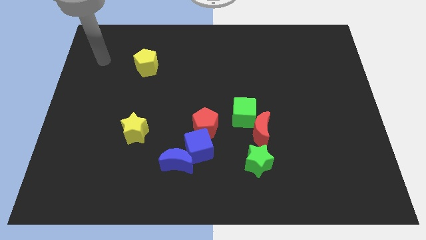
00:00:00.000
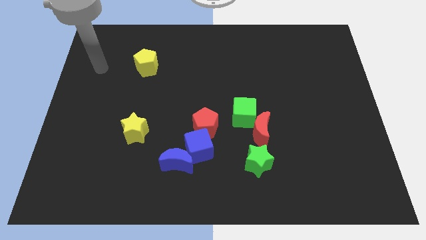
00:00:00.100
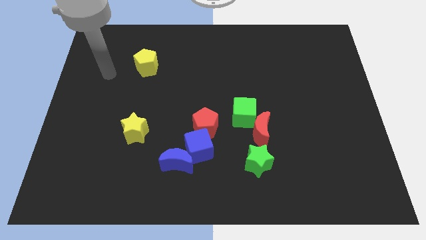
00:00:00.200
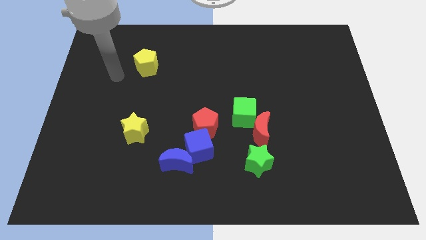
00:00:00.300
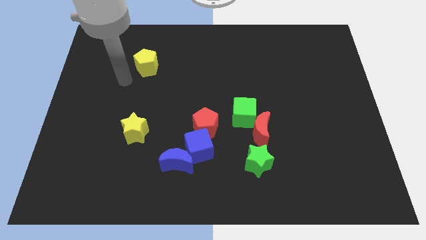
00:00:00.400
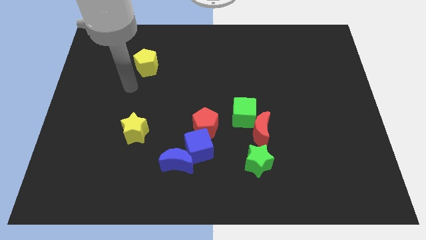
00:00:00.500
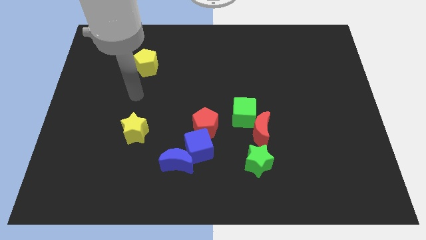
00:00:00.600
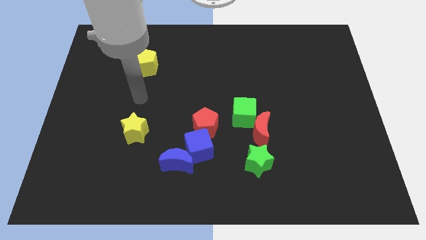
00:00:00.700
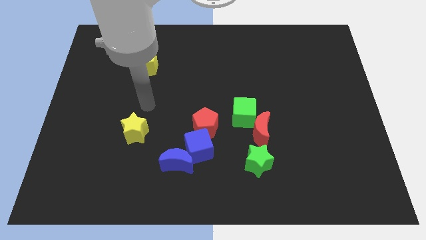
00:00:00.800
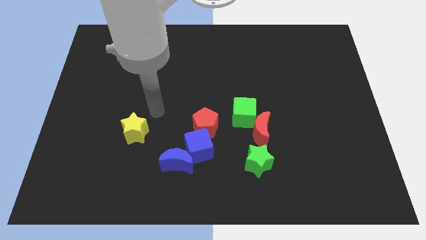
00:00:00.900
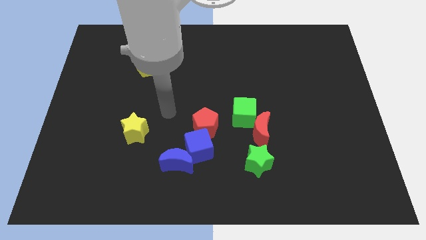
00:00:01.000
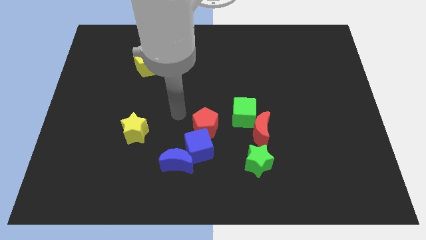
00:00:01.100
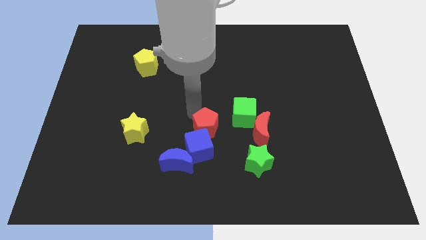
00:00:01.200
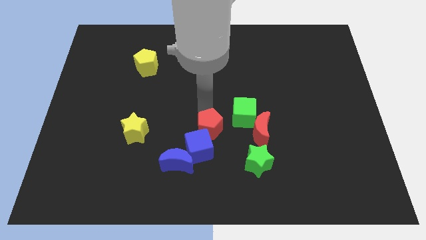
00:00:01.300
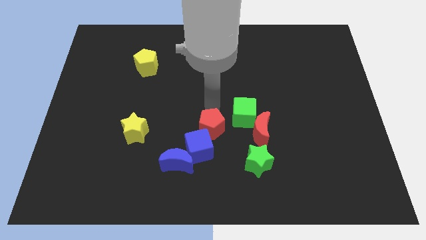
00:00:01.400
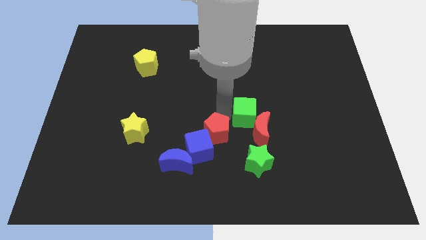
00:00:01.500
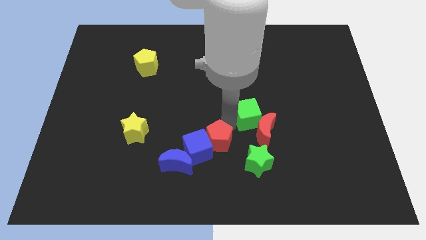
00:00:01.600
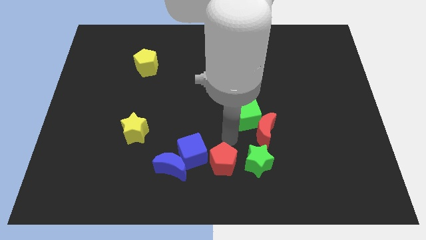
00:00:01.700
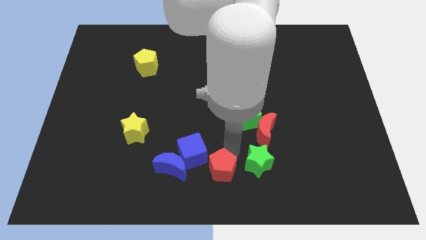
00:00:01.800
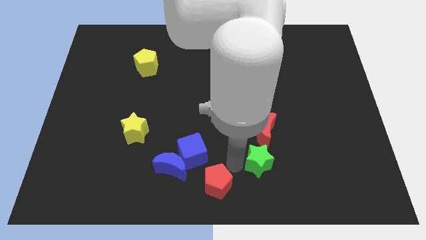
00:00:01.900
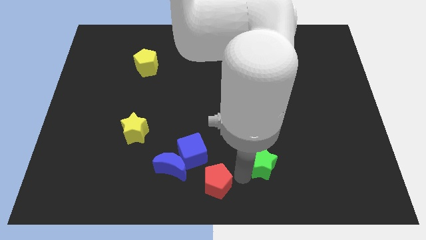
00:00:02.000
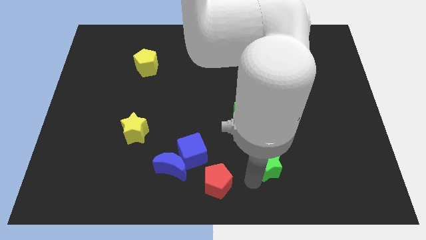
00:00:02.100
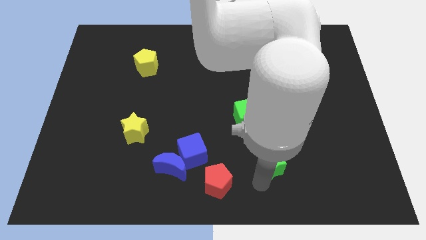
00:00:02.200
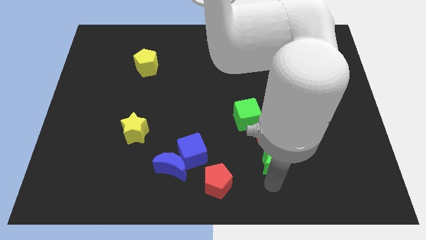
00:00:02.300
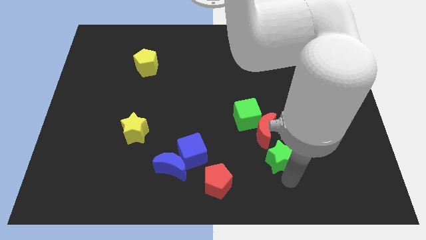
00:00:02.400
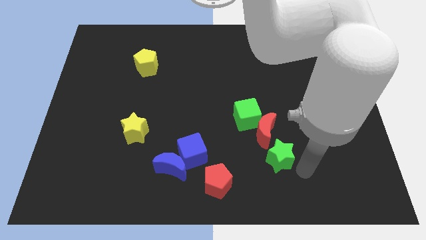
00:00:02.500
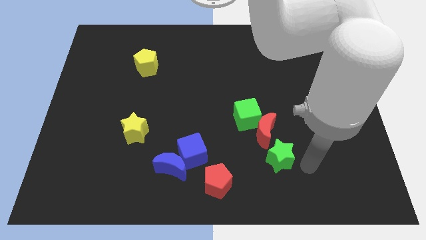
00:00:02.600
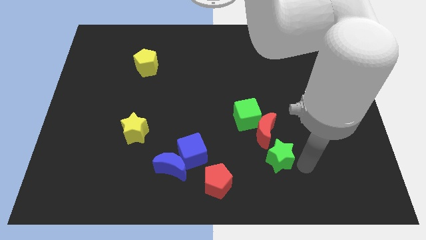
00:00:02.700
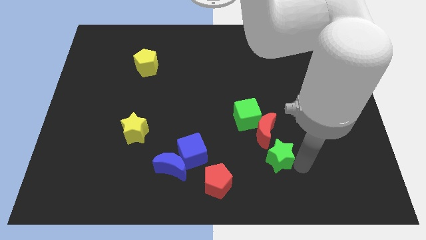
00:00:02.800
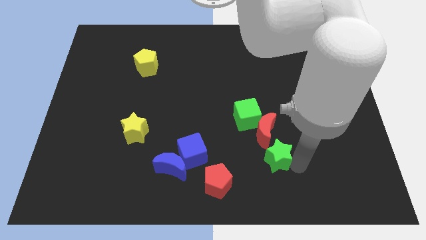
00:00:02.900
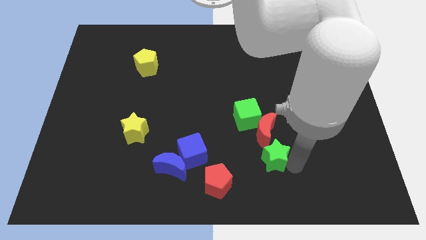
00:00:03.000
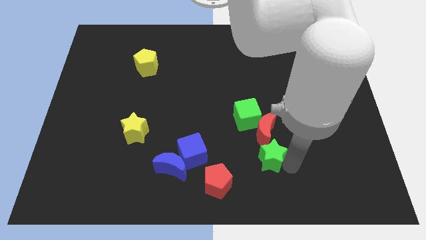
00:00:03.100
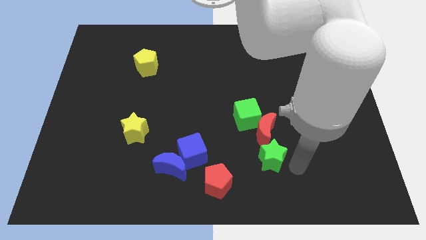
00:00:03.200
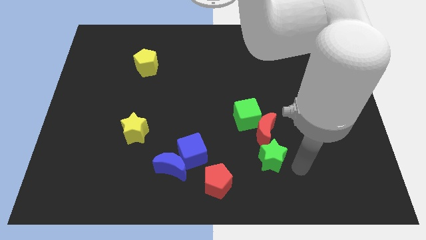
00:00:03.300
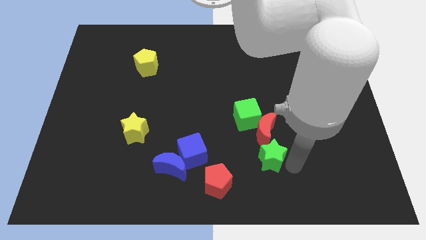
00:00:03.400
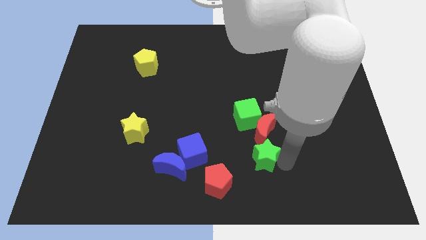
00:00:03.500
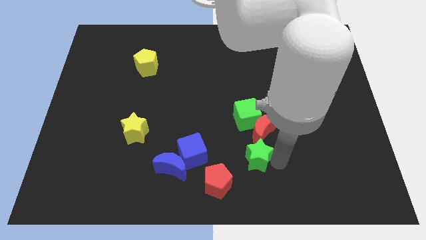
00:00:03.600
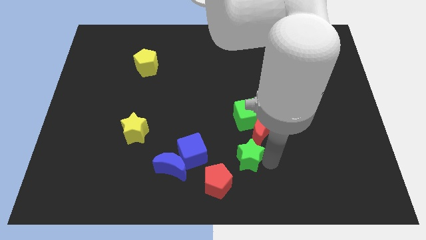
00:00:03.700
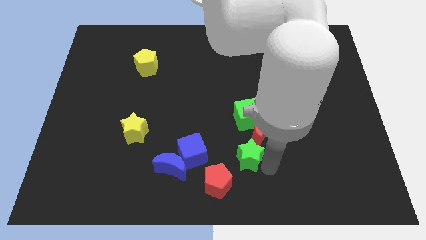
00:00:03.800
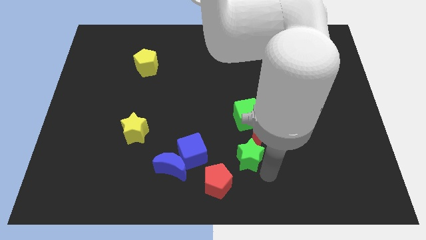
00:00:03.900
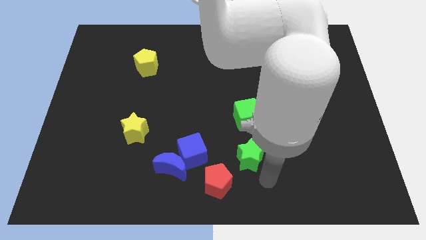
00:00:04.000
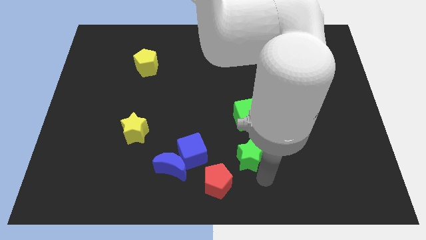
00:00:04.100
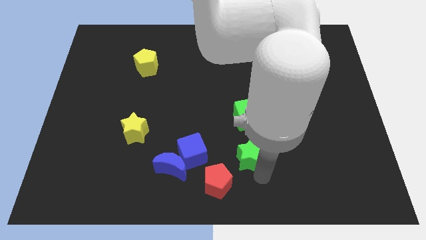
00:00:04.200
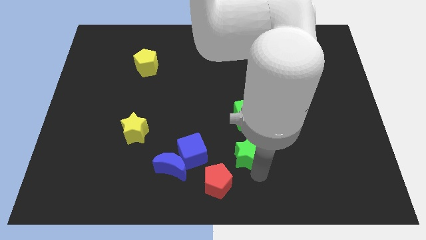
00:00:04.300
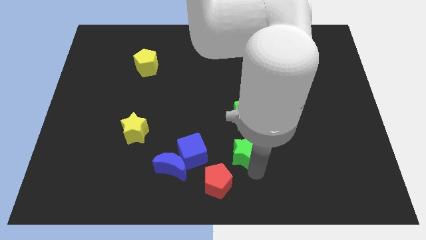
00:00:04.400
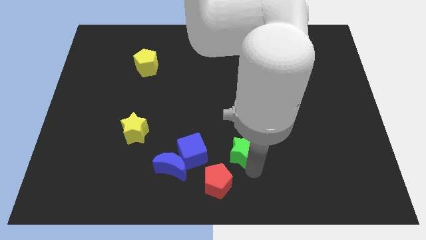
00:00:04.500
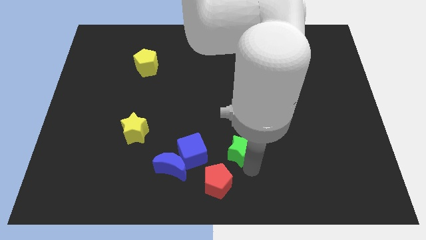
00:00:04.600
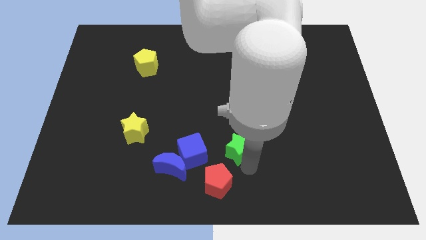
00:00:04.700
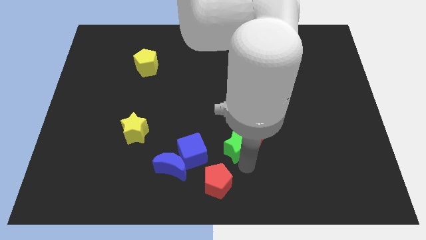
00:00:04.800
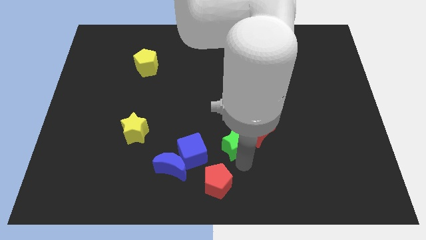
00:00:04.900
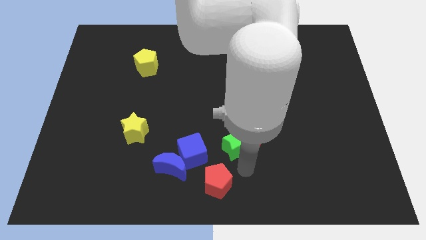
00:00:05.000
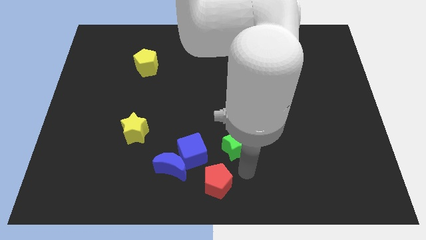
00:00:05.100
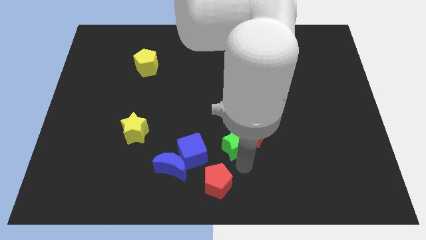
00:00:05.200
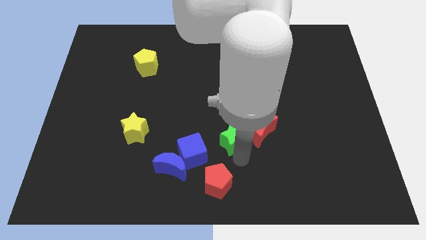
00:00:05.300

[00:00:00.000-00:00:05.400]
move the green star a little up and to the left diagonally

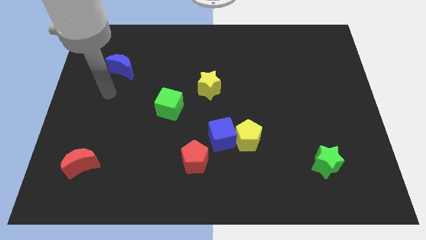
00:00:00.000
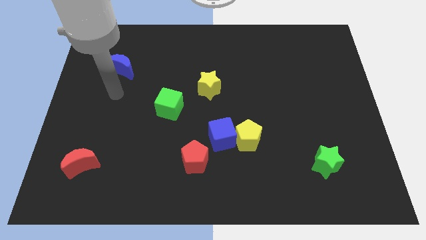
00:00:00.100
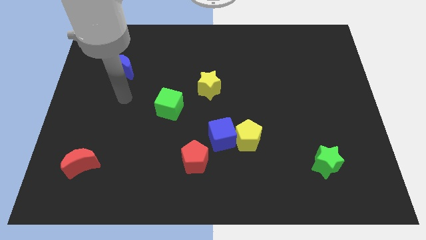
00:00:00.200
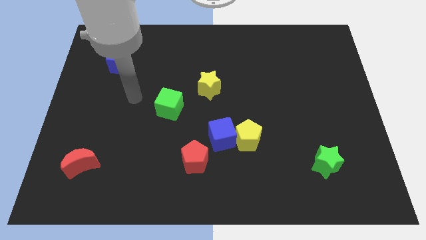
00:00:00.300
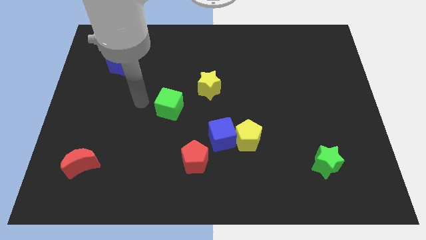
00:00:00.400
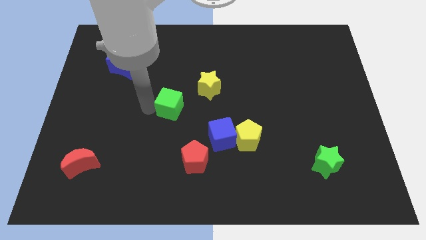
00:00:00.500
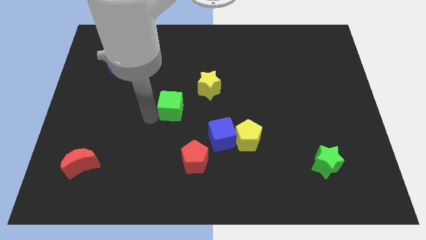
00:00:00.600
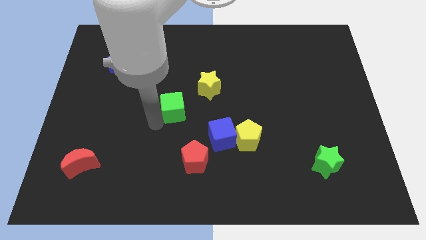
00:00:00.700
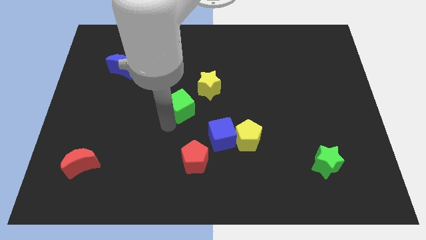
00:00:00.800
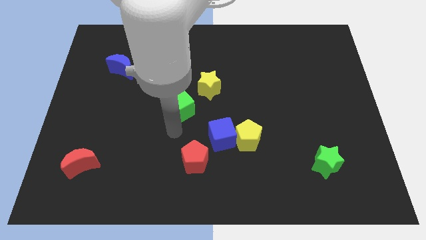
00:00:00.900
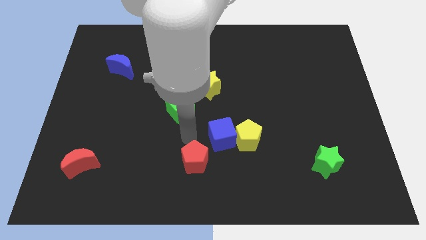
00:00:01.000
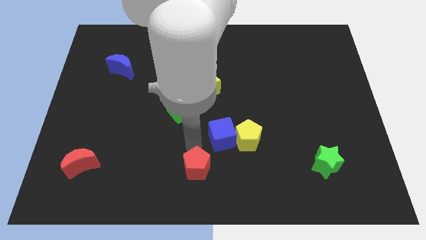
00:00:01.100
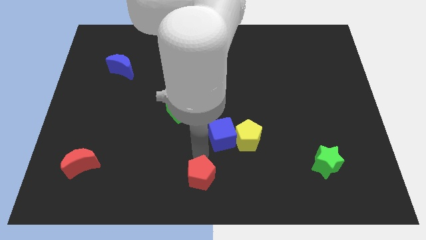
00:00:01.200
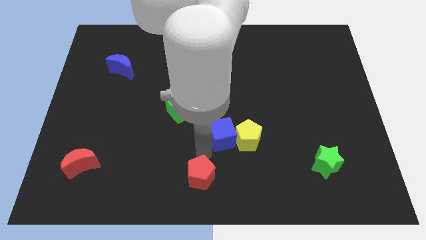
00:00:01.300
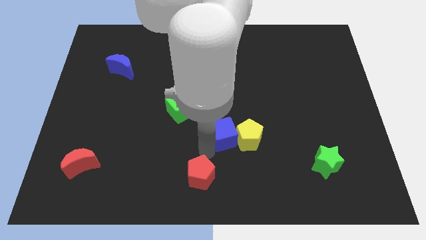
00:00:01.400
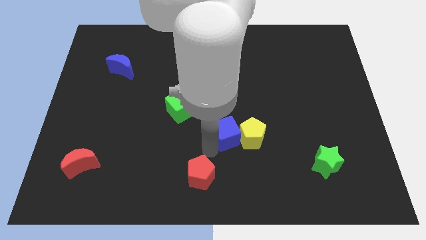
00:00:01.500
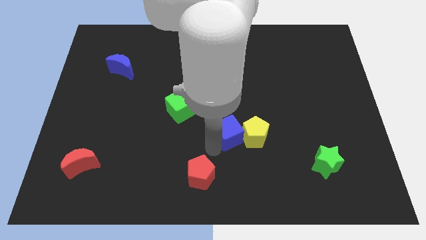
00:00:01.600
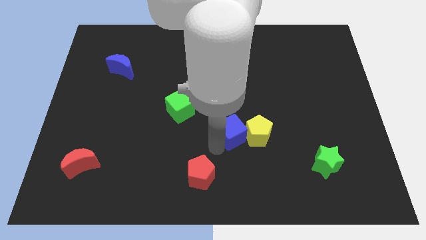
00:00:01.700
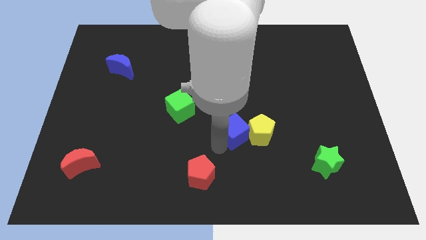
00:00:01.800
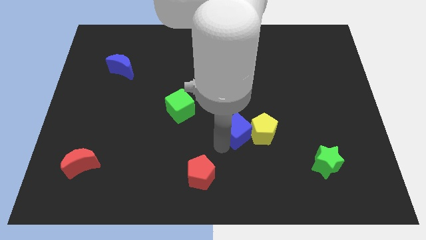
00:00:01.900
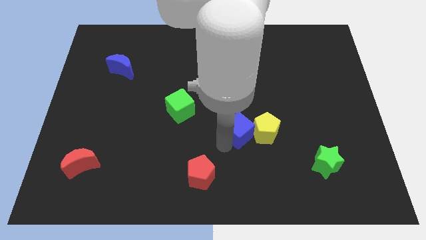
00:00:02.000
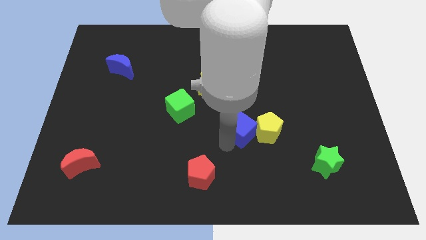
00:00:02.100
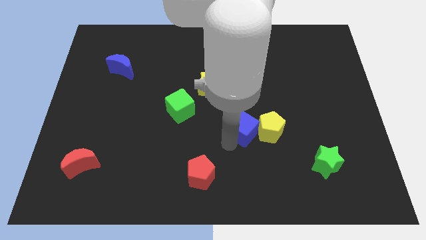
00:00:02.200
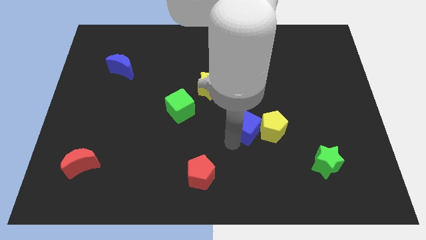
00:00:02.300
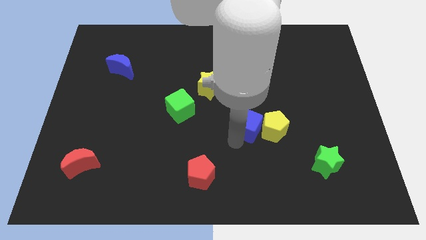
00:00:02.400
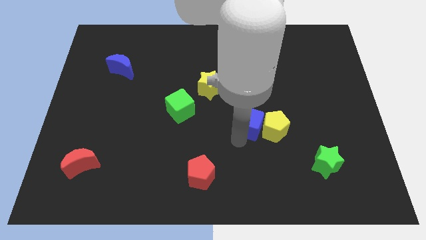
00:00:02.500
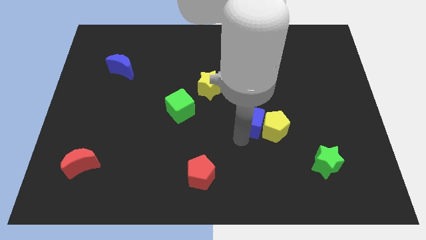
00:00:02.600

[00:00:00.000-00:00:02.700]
slightly push the blue cube up and to the right

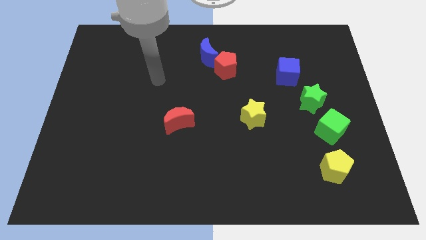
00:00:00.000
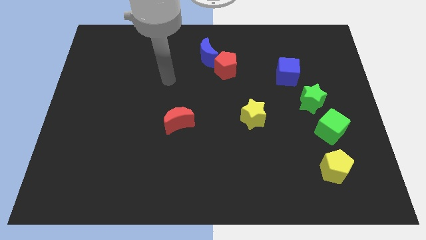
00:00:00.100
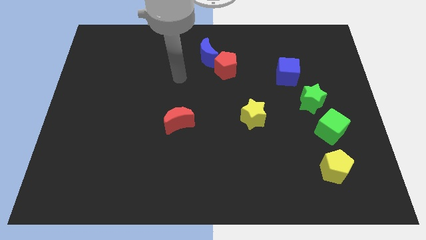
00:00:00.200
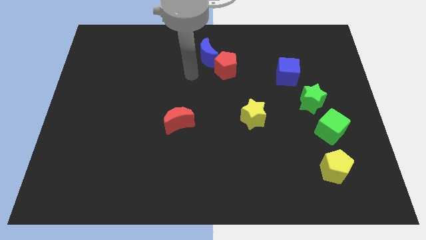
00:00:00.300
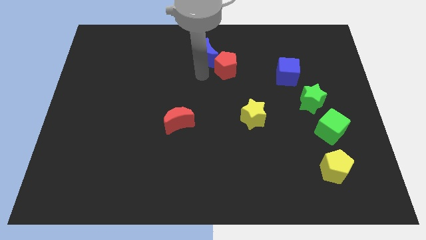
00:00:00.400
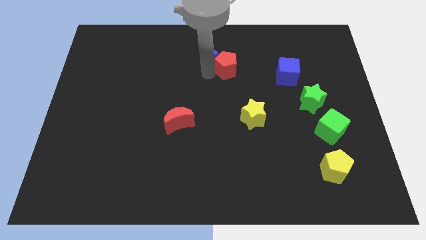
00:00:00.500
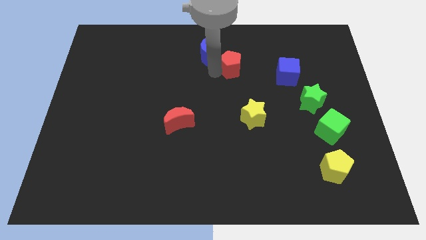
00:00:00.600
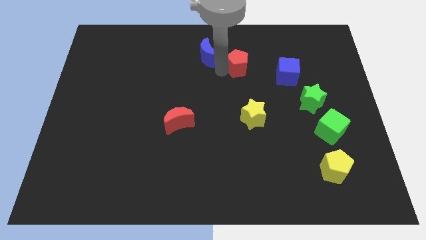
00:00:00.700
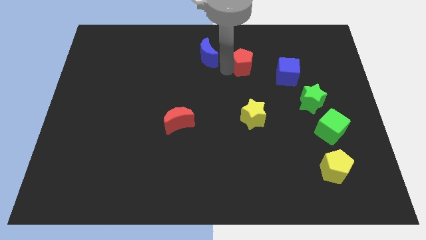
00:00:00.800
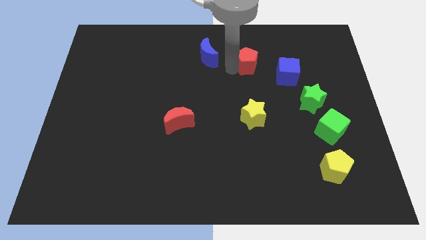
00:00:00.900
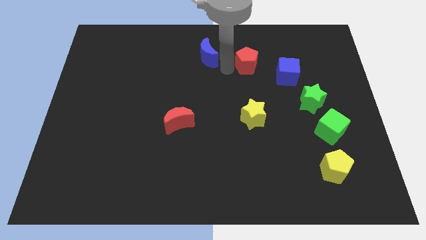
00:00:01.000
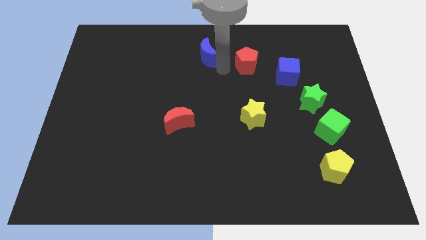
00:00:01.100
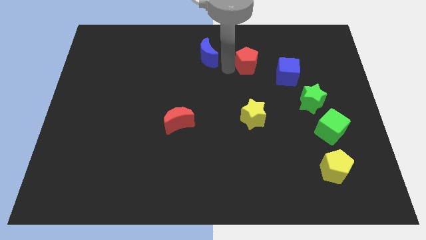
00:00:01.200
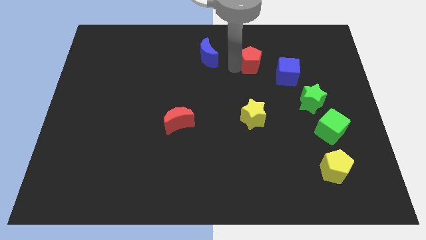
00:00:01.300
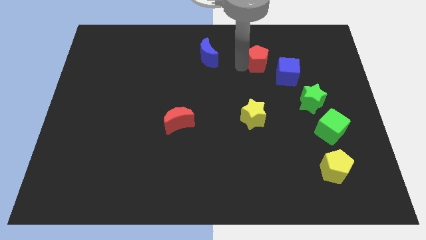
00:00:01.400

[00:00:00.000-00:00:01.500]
push the red pentagon a little to the right
